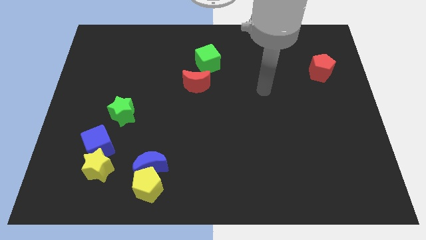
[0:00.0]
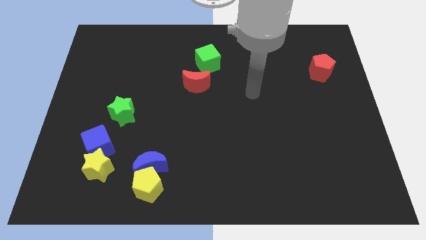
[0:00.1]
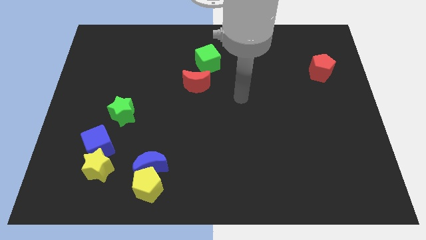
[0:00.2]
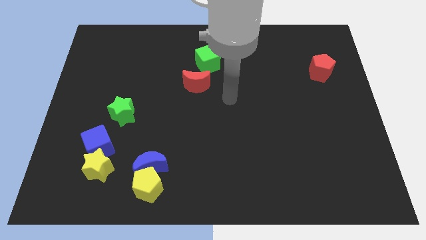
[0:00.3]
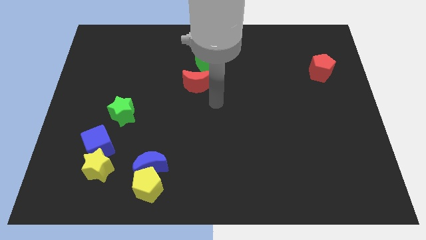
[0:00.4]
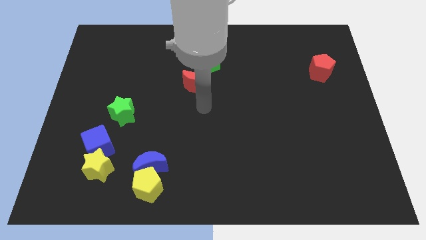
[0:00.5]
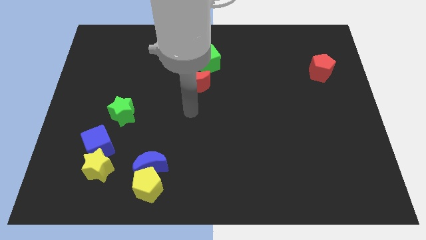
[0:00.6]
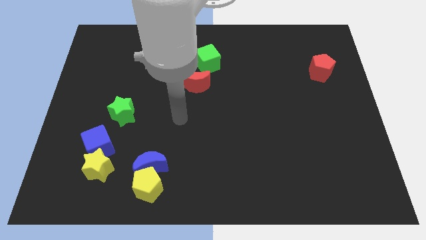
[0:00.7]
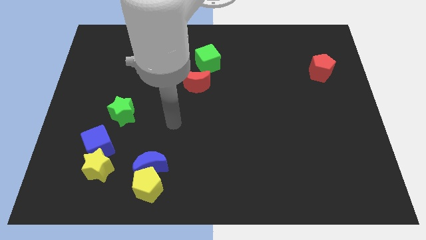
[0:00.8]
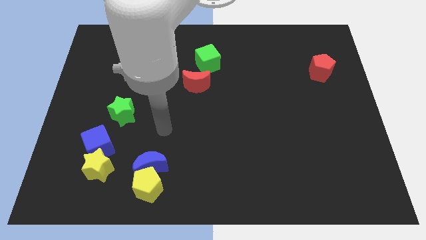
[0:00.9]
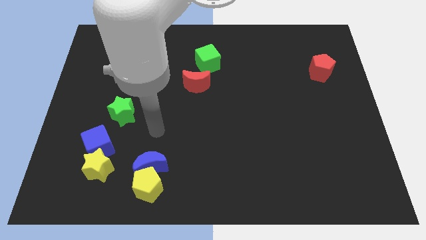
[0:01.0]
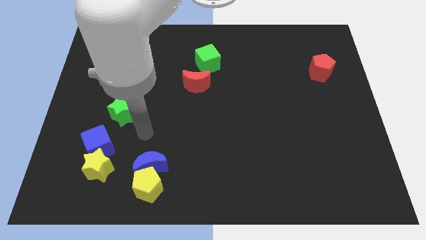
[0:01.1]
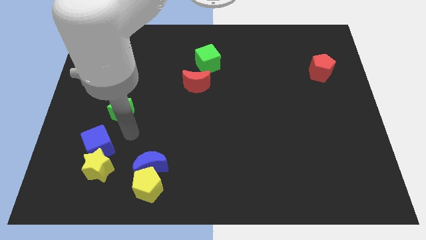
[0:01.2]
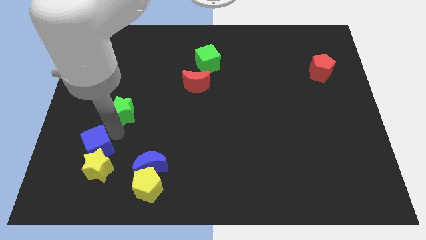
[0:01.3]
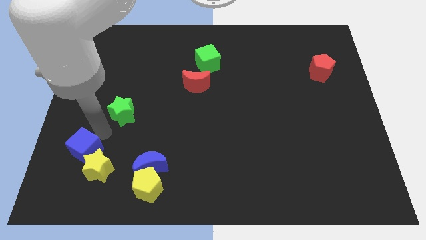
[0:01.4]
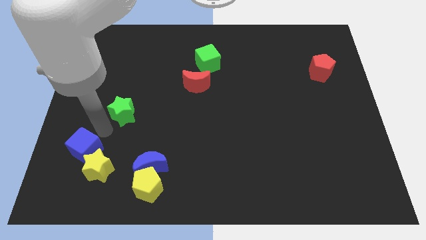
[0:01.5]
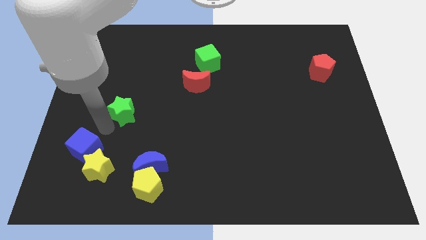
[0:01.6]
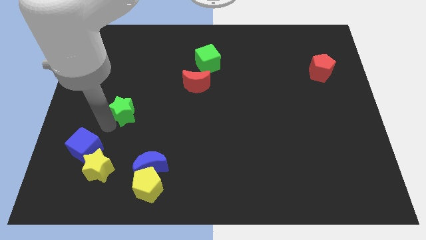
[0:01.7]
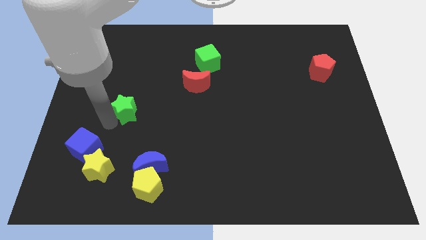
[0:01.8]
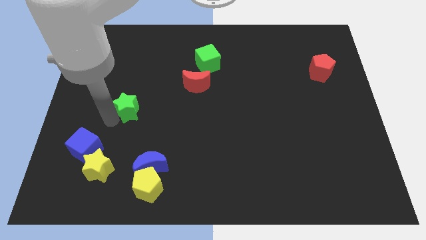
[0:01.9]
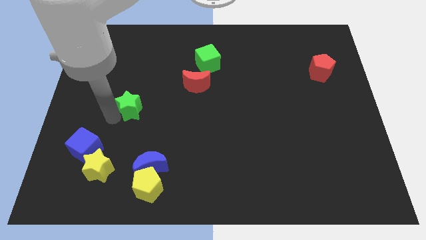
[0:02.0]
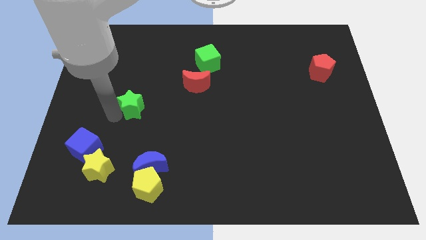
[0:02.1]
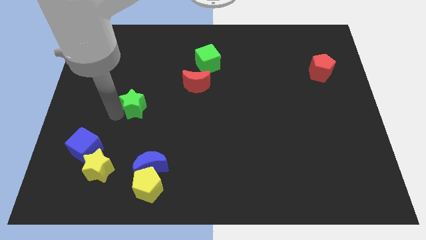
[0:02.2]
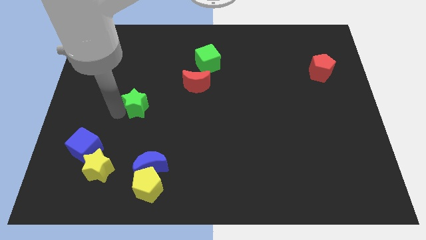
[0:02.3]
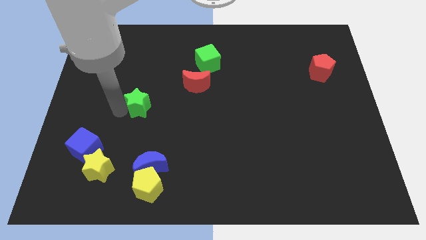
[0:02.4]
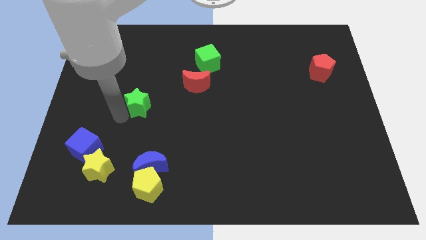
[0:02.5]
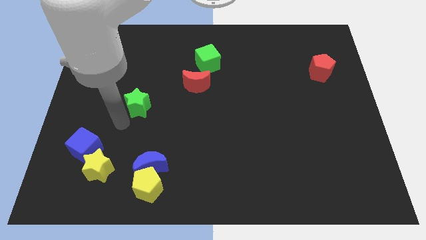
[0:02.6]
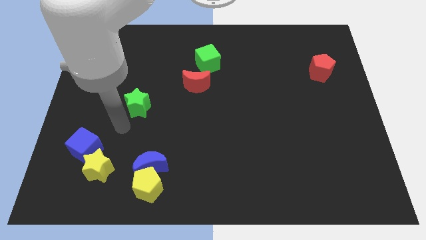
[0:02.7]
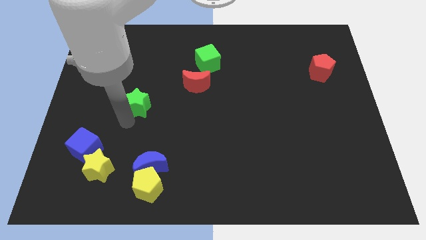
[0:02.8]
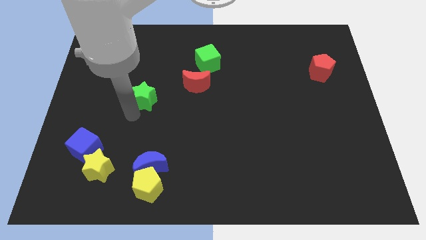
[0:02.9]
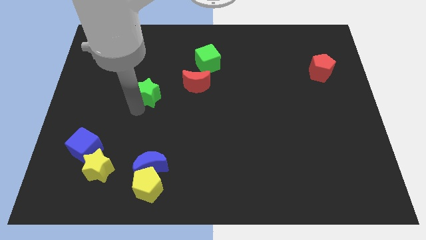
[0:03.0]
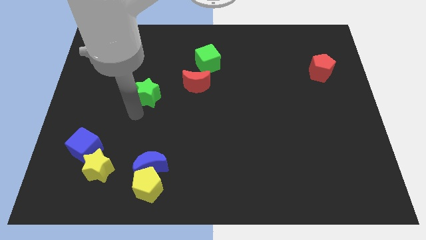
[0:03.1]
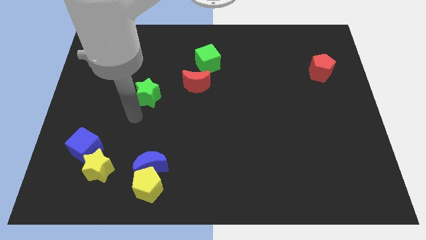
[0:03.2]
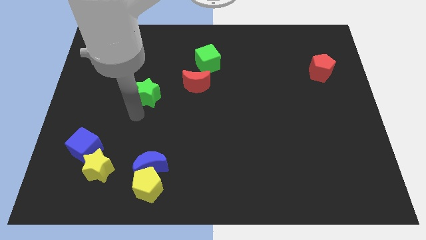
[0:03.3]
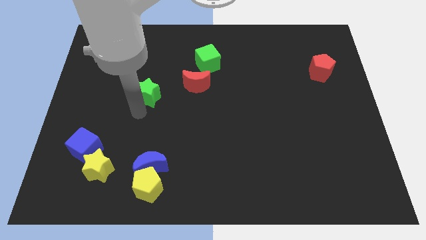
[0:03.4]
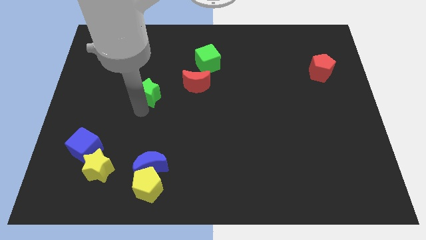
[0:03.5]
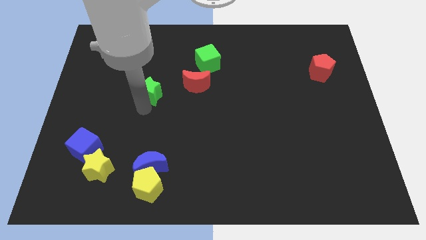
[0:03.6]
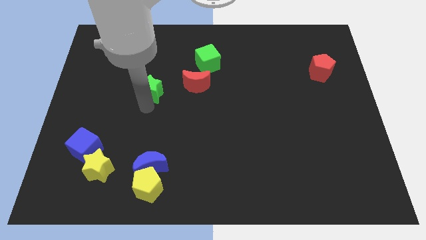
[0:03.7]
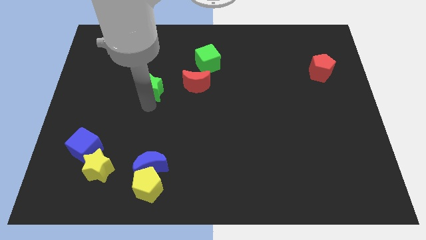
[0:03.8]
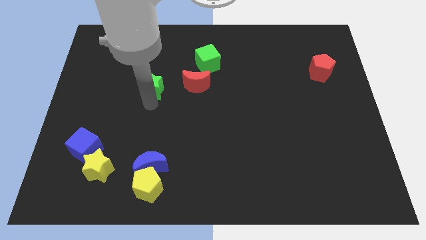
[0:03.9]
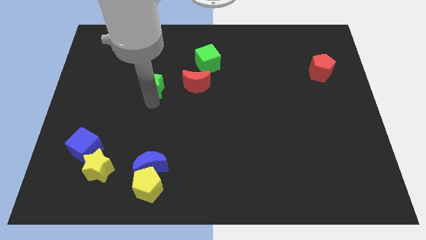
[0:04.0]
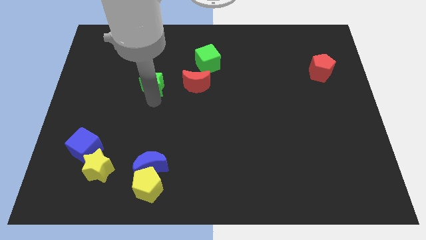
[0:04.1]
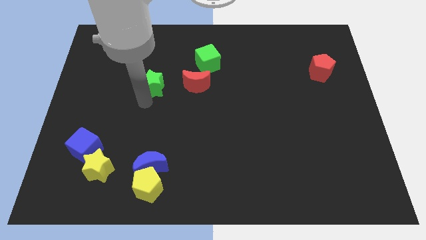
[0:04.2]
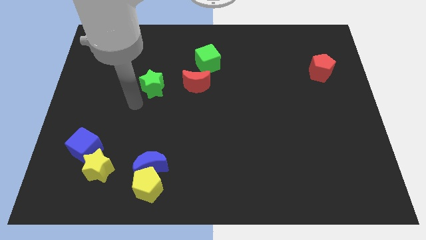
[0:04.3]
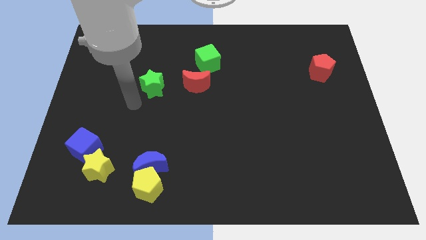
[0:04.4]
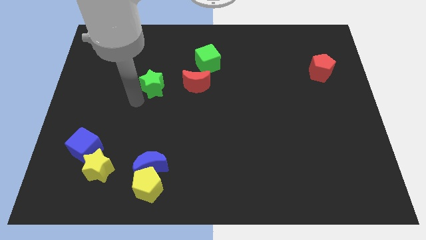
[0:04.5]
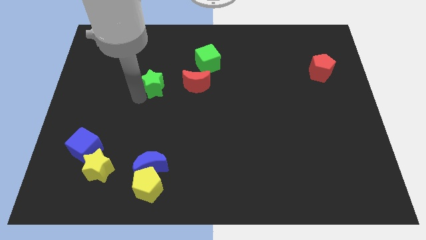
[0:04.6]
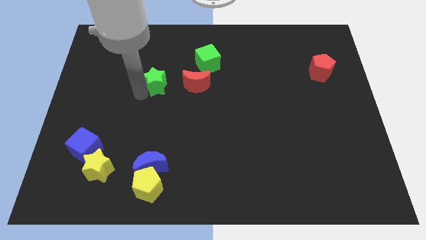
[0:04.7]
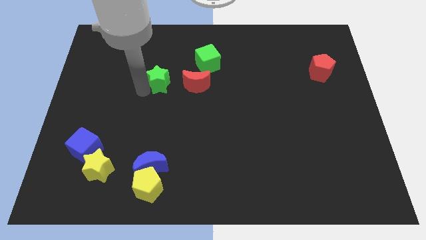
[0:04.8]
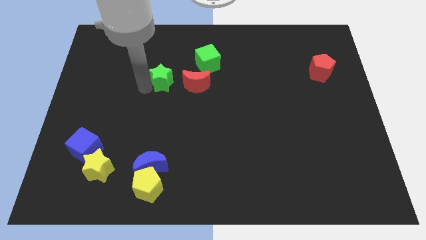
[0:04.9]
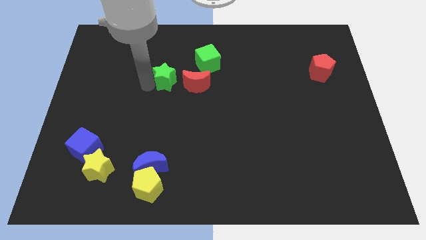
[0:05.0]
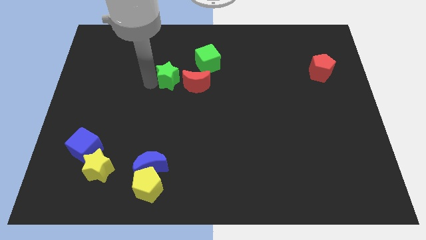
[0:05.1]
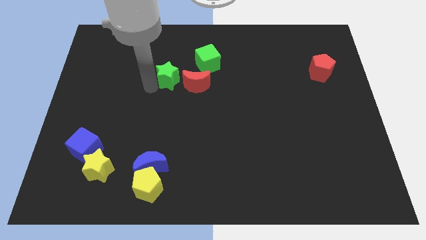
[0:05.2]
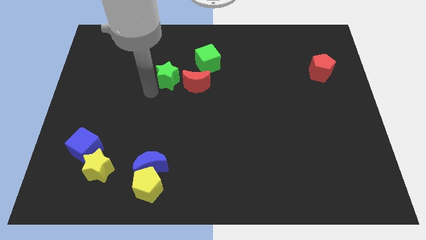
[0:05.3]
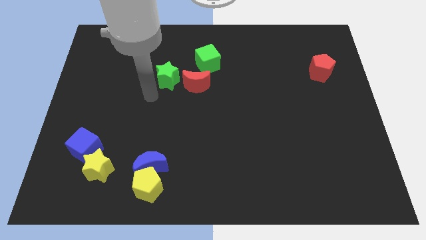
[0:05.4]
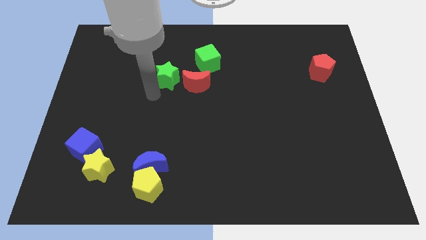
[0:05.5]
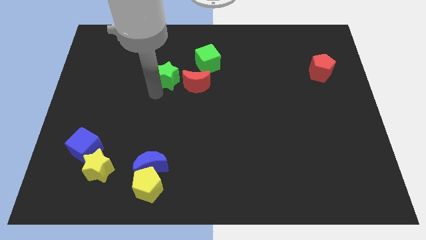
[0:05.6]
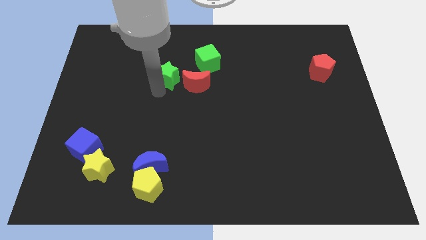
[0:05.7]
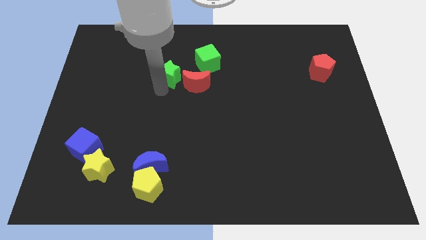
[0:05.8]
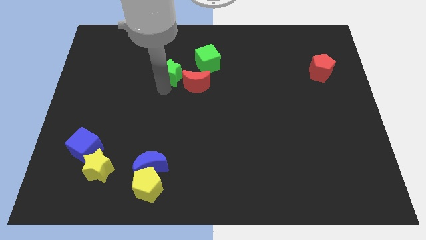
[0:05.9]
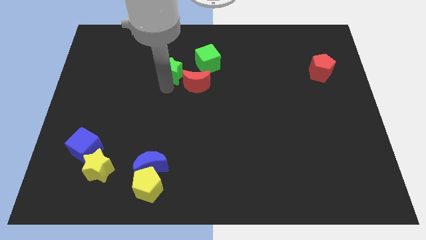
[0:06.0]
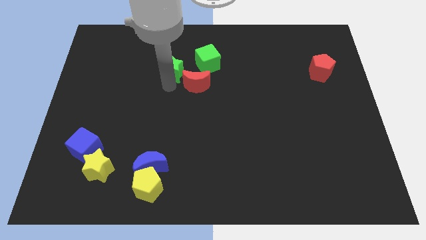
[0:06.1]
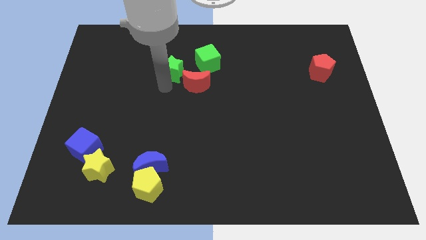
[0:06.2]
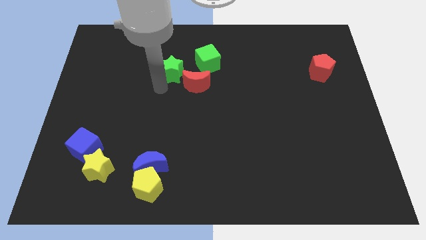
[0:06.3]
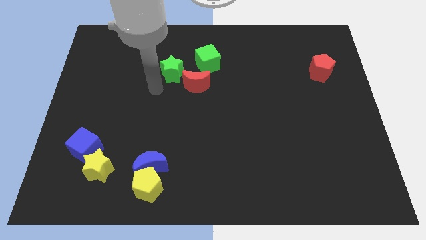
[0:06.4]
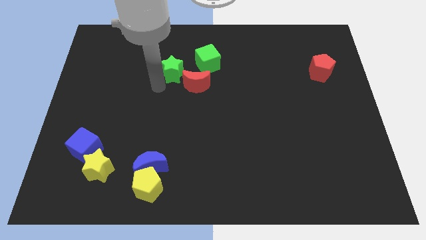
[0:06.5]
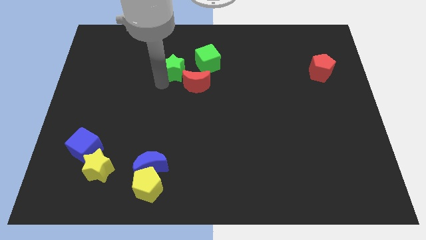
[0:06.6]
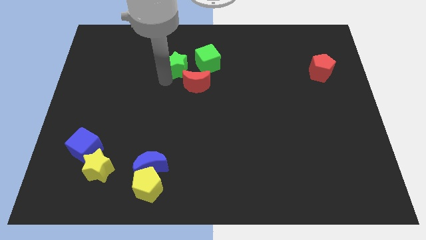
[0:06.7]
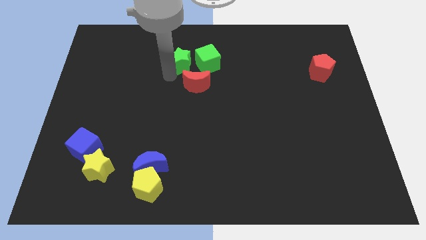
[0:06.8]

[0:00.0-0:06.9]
put the green star to the top side of the red moon
